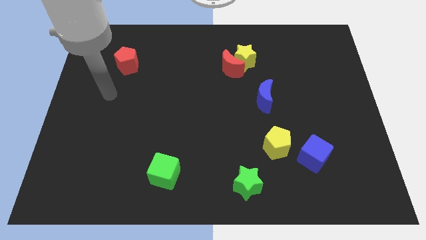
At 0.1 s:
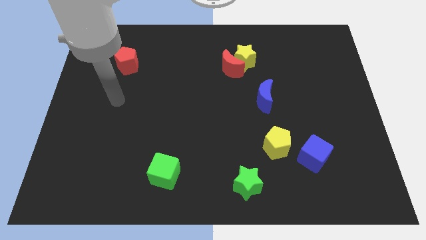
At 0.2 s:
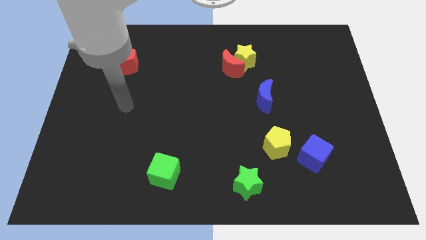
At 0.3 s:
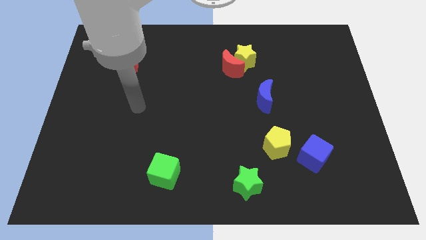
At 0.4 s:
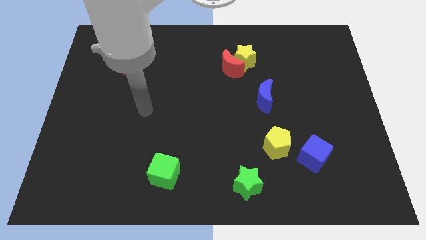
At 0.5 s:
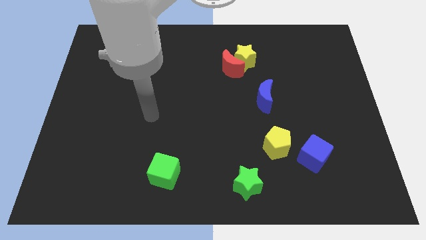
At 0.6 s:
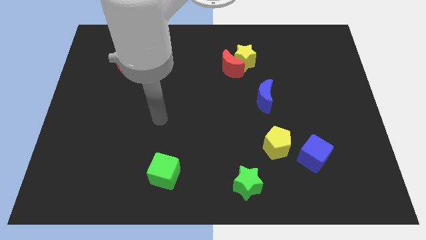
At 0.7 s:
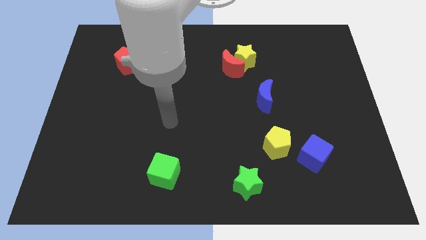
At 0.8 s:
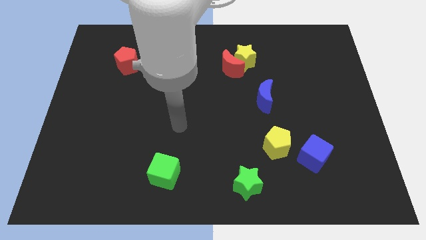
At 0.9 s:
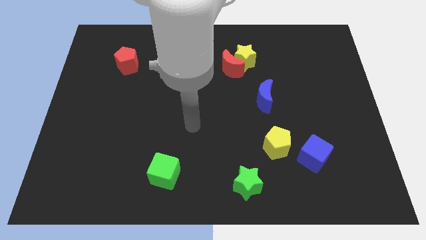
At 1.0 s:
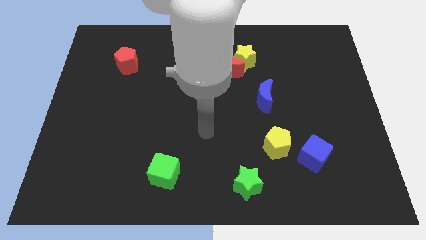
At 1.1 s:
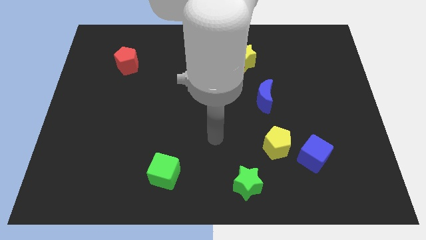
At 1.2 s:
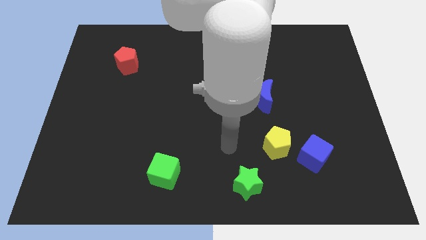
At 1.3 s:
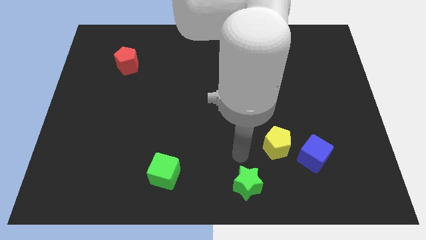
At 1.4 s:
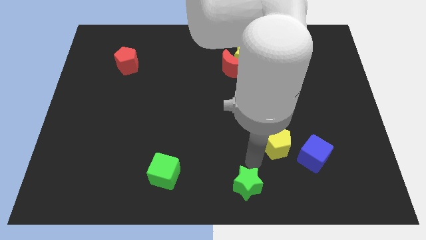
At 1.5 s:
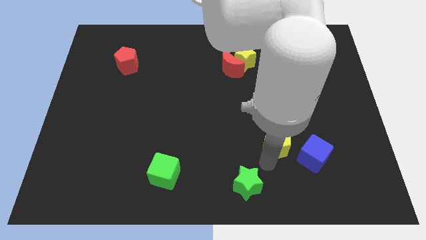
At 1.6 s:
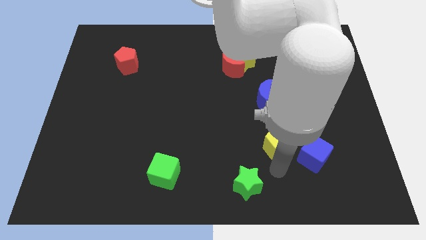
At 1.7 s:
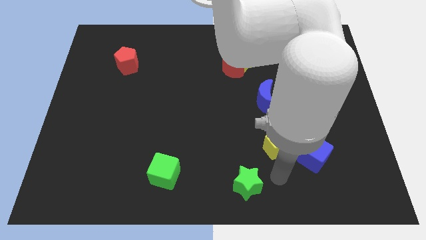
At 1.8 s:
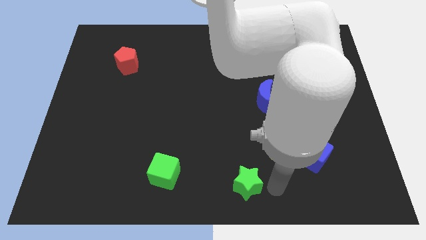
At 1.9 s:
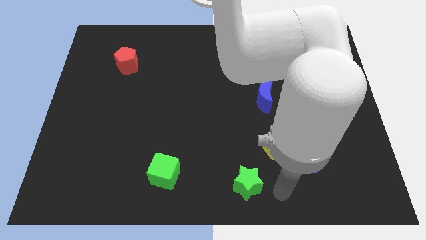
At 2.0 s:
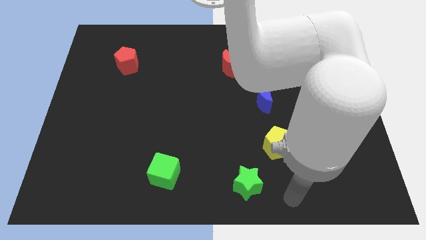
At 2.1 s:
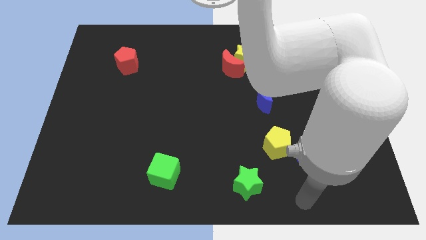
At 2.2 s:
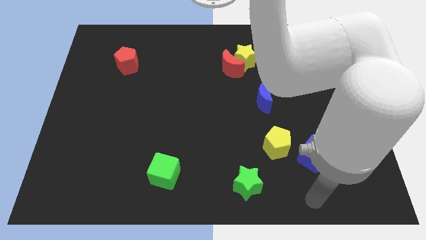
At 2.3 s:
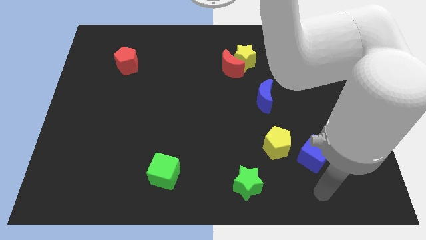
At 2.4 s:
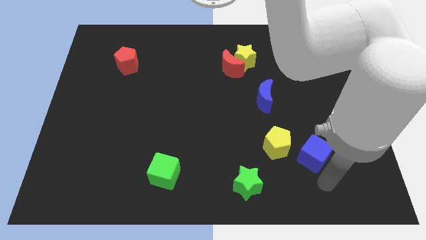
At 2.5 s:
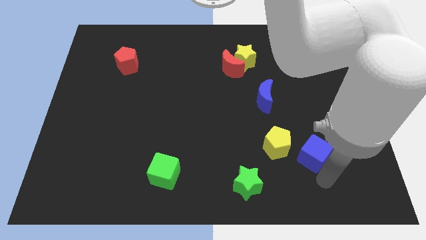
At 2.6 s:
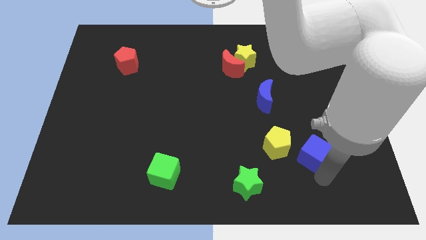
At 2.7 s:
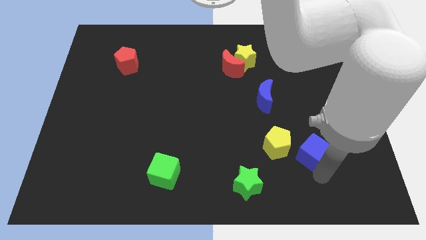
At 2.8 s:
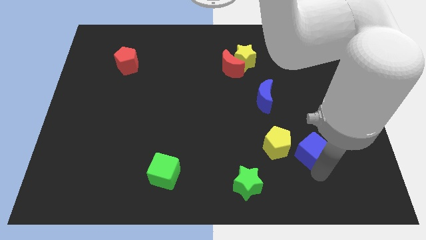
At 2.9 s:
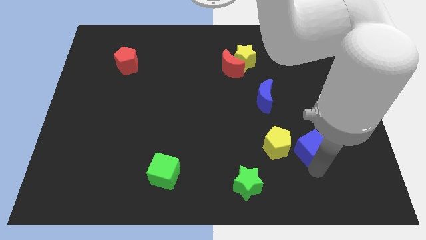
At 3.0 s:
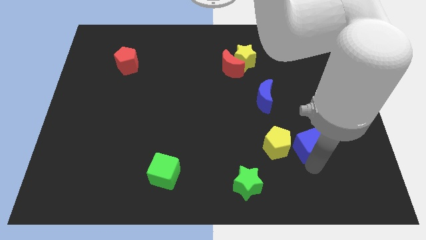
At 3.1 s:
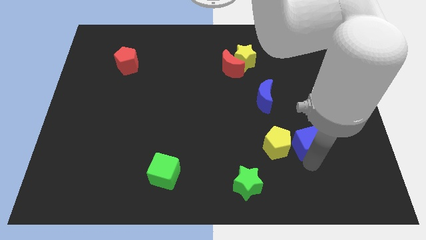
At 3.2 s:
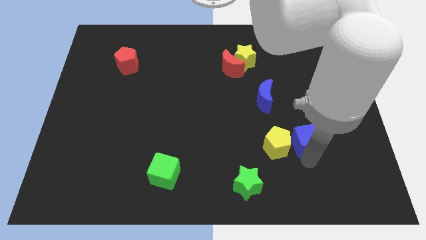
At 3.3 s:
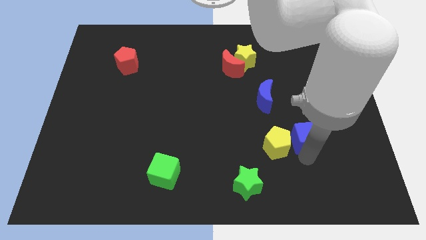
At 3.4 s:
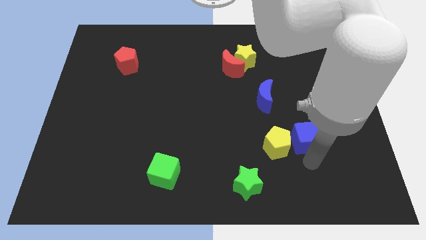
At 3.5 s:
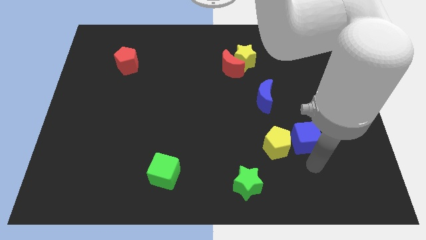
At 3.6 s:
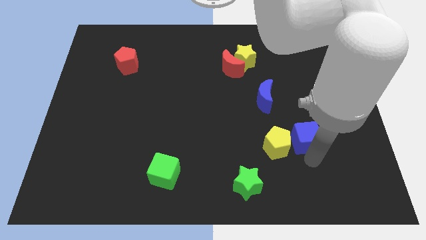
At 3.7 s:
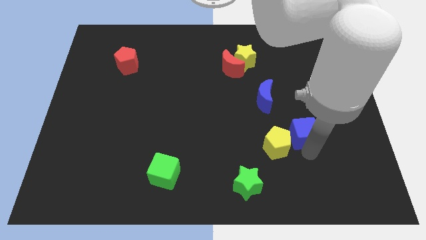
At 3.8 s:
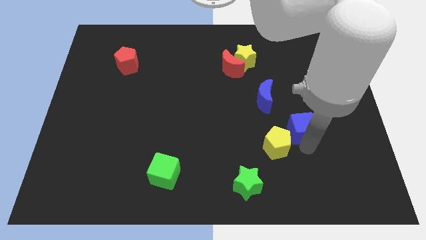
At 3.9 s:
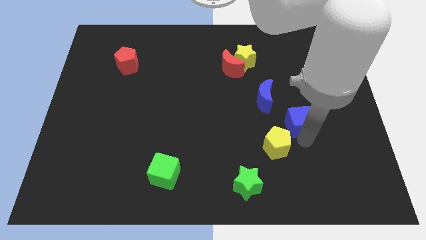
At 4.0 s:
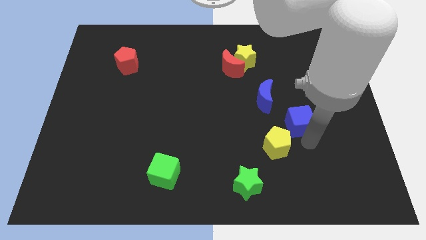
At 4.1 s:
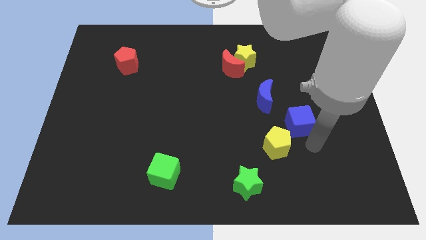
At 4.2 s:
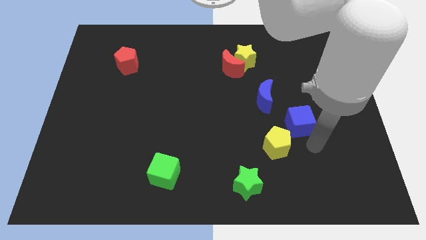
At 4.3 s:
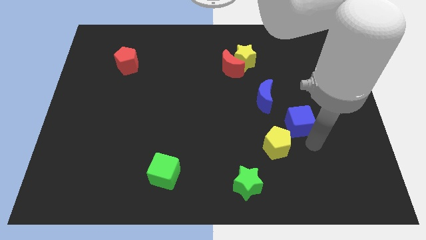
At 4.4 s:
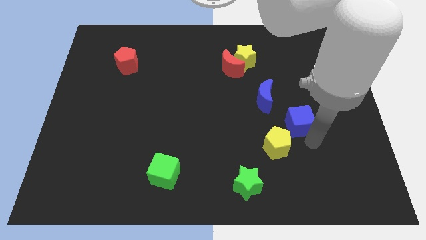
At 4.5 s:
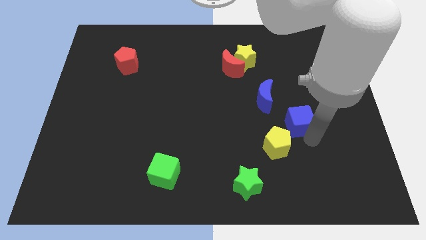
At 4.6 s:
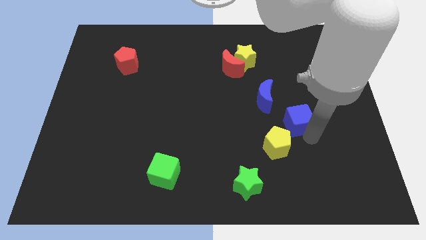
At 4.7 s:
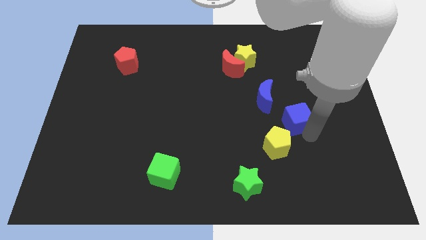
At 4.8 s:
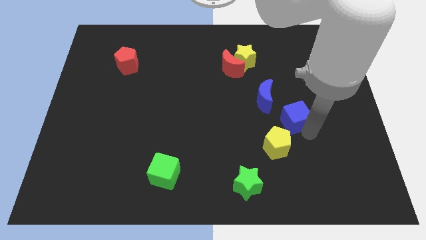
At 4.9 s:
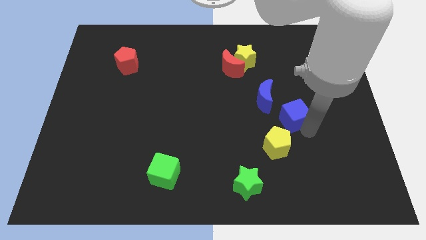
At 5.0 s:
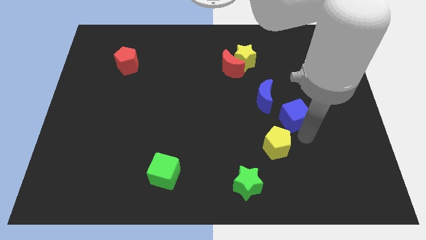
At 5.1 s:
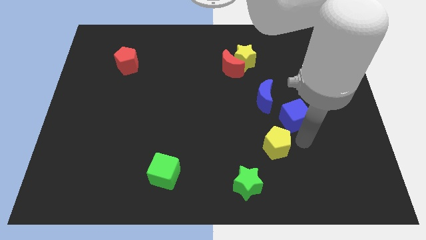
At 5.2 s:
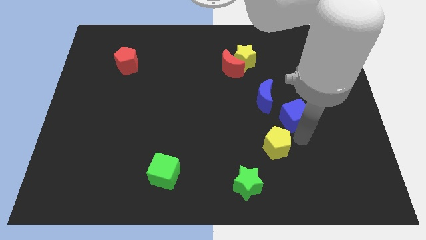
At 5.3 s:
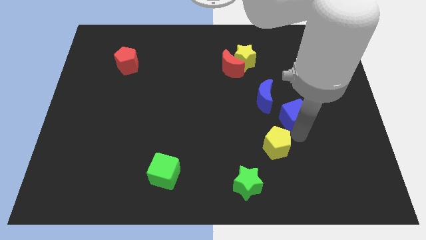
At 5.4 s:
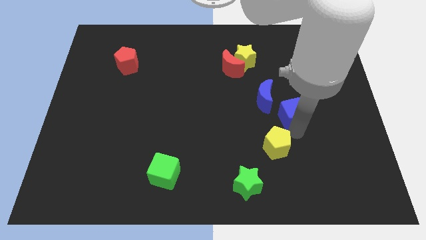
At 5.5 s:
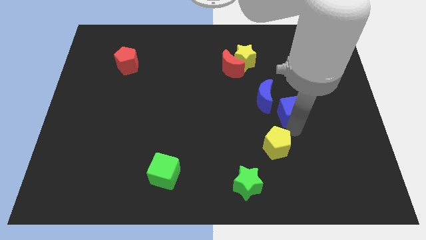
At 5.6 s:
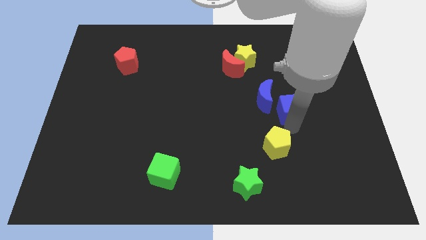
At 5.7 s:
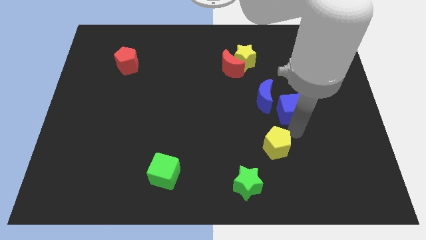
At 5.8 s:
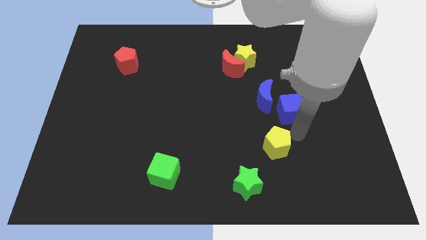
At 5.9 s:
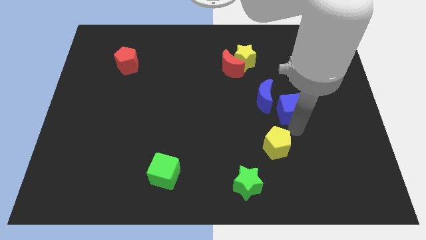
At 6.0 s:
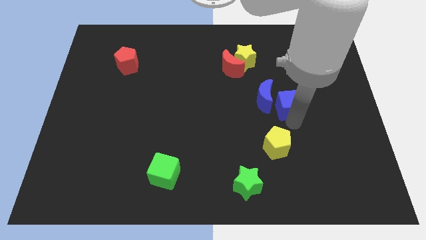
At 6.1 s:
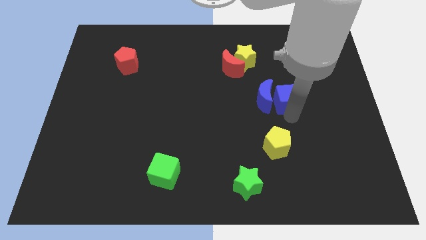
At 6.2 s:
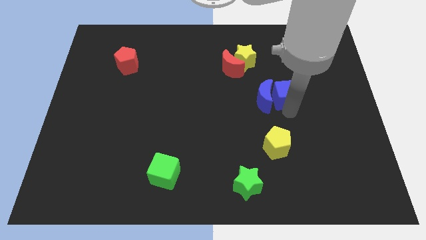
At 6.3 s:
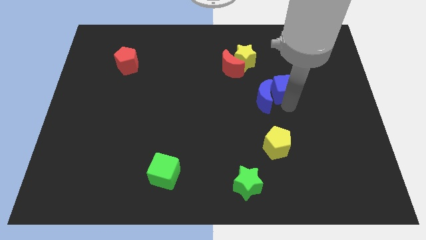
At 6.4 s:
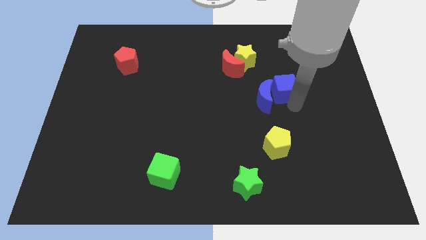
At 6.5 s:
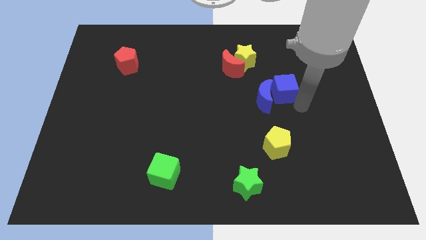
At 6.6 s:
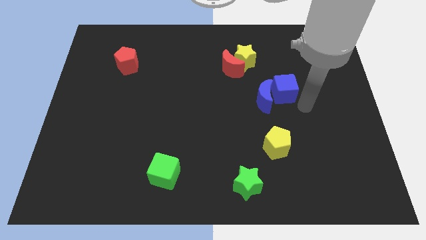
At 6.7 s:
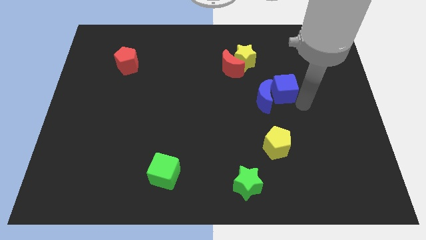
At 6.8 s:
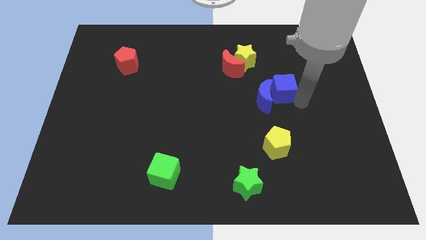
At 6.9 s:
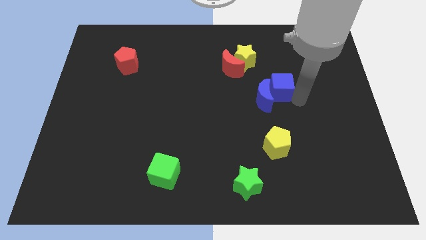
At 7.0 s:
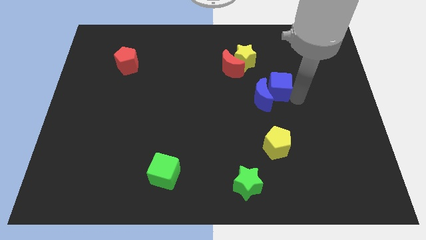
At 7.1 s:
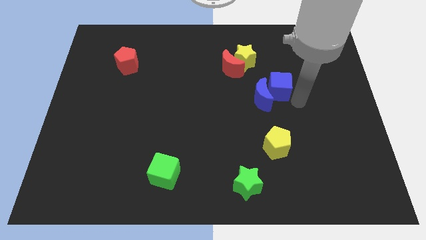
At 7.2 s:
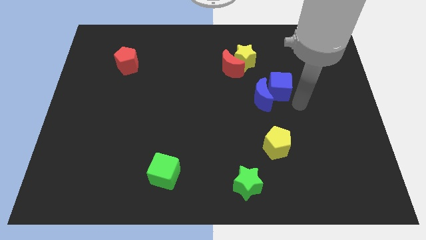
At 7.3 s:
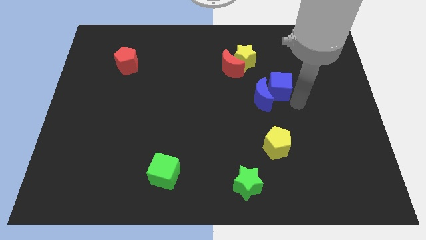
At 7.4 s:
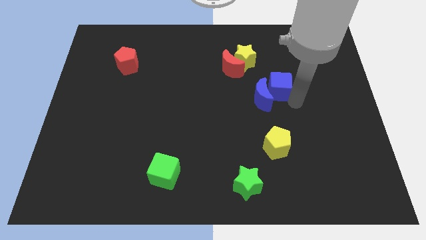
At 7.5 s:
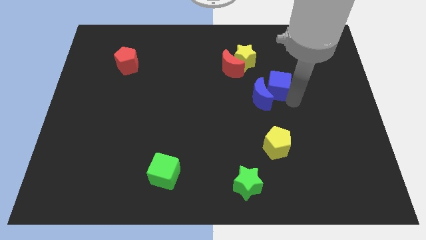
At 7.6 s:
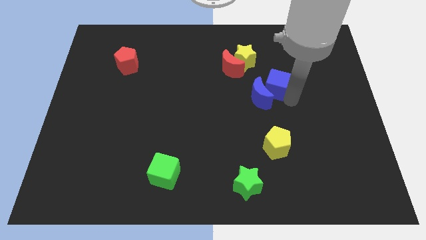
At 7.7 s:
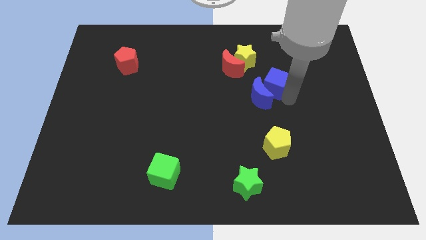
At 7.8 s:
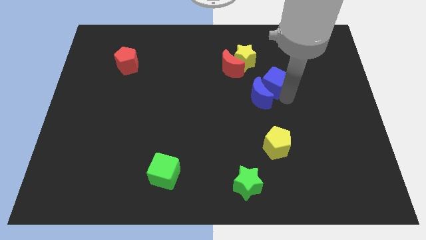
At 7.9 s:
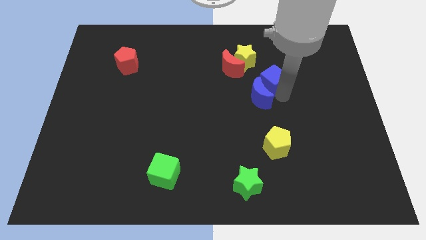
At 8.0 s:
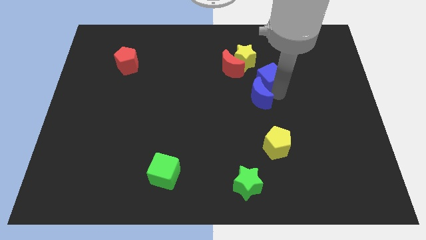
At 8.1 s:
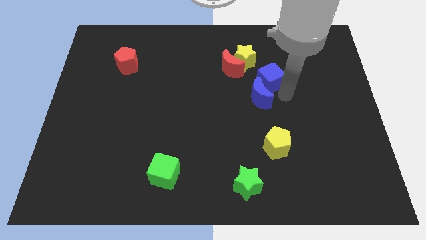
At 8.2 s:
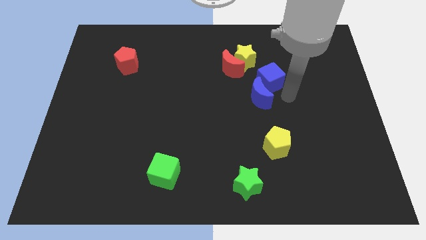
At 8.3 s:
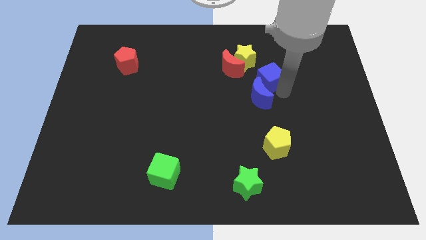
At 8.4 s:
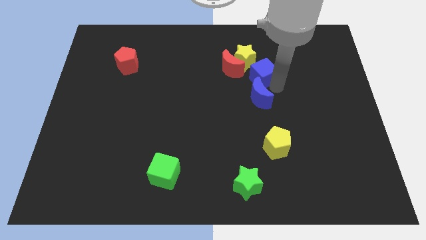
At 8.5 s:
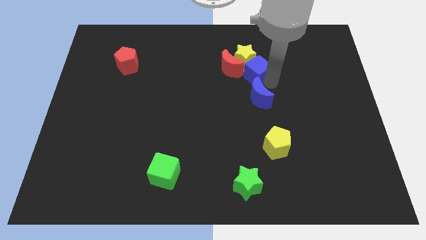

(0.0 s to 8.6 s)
push the blue cube to the yellow star
